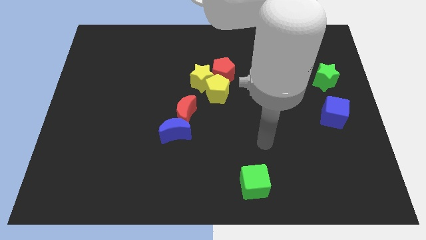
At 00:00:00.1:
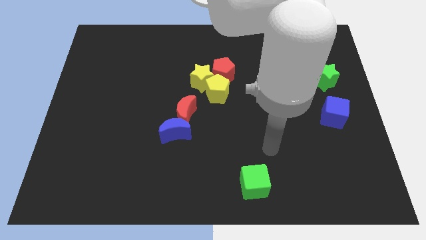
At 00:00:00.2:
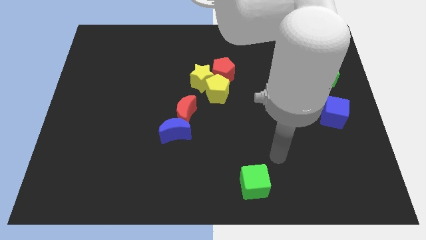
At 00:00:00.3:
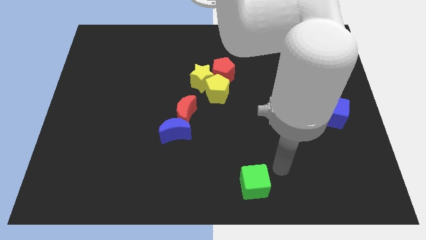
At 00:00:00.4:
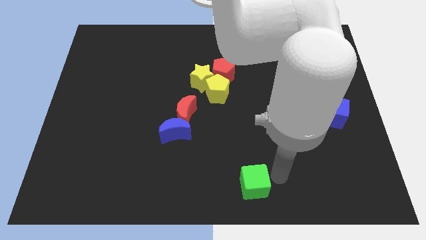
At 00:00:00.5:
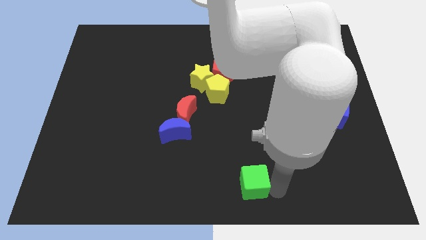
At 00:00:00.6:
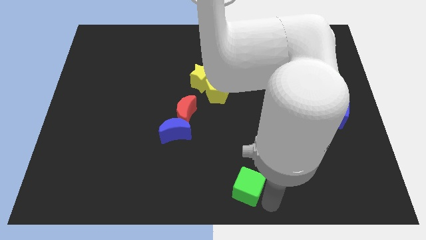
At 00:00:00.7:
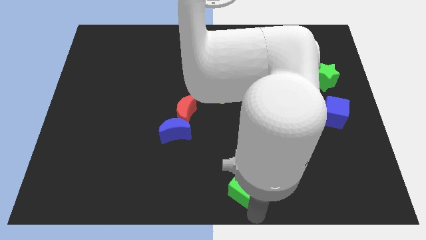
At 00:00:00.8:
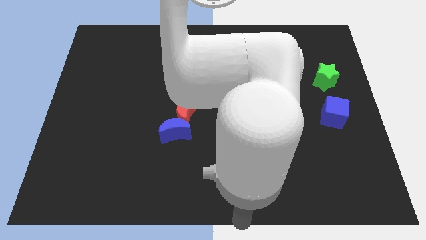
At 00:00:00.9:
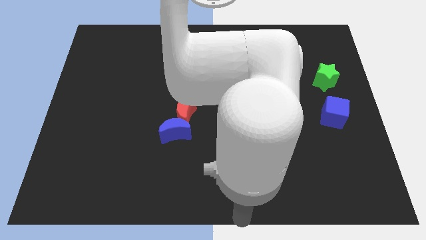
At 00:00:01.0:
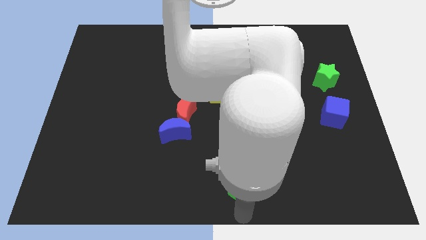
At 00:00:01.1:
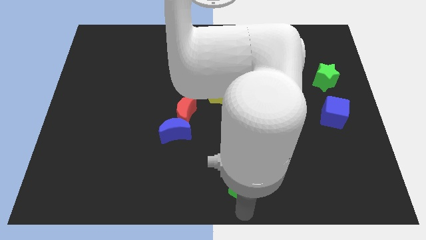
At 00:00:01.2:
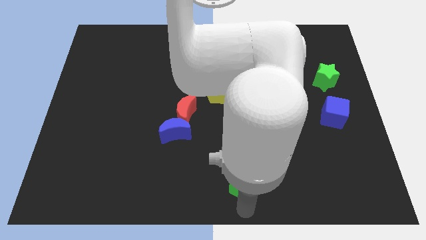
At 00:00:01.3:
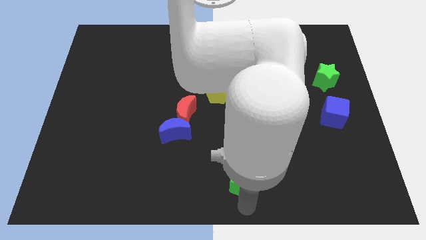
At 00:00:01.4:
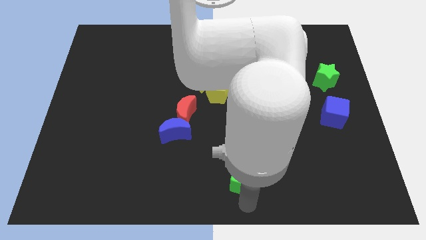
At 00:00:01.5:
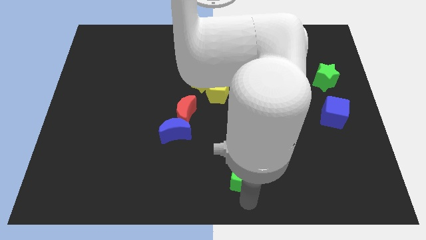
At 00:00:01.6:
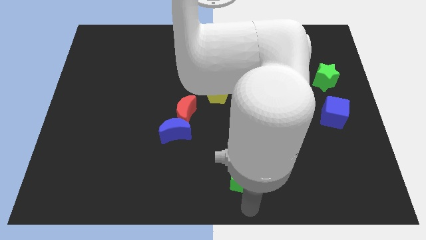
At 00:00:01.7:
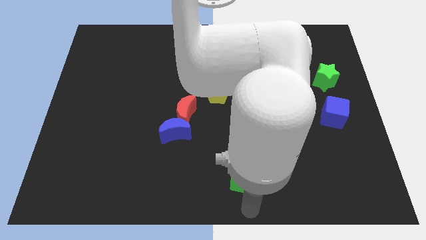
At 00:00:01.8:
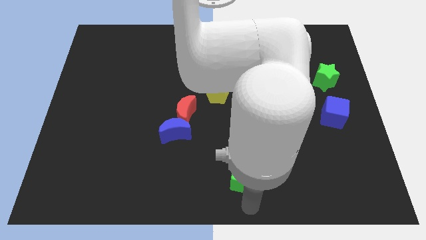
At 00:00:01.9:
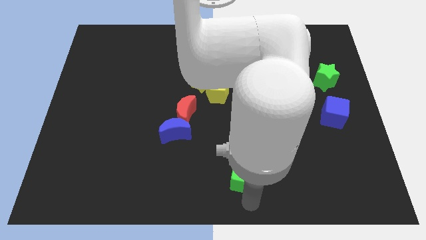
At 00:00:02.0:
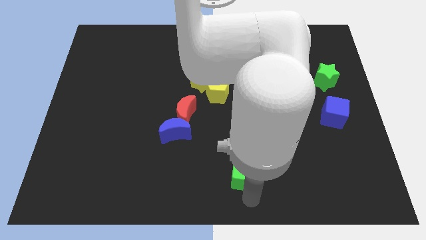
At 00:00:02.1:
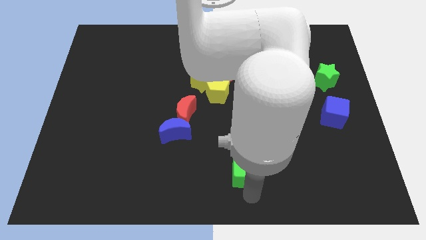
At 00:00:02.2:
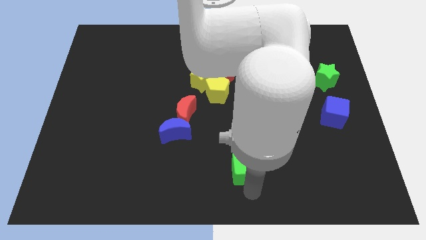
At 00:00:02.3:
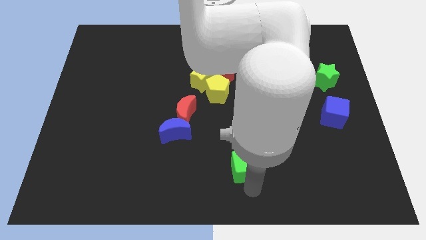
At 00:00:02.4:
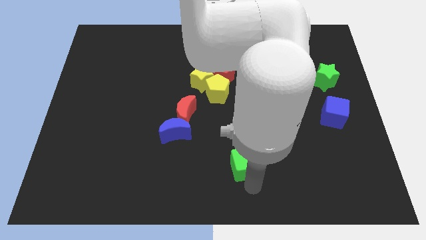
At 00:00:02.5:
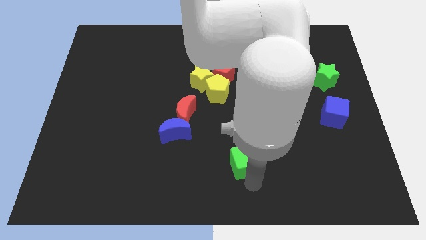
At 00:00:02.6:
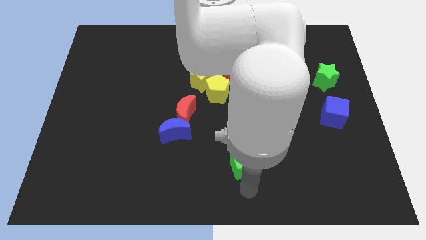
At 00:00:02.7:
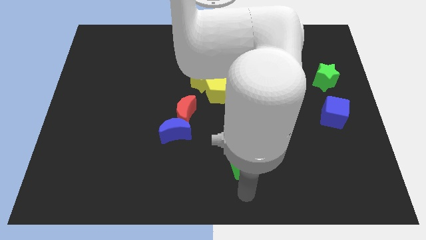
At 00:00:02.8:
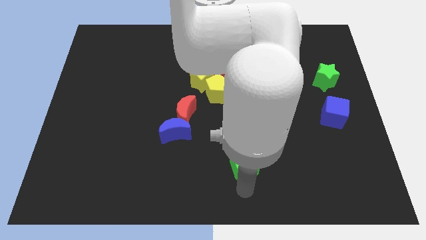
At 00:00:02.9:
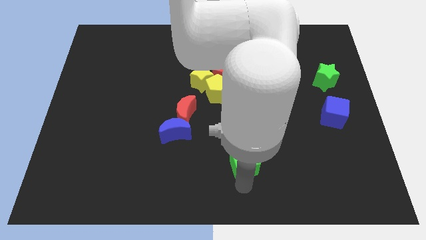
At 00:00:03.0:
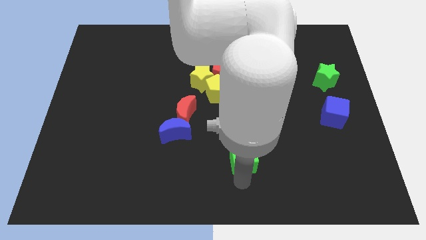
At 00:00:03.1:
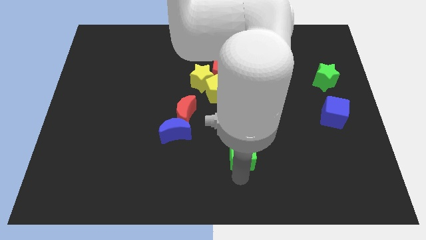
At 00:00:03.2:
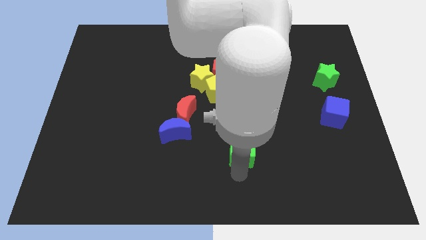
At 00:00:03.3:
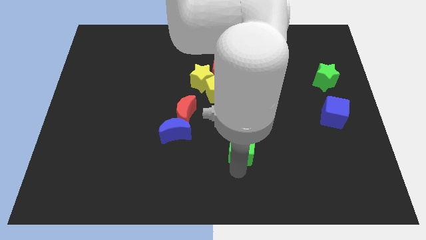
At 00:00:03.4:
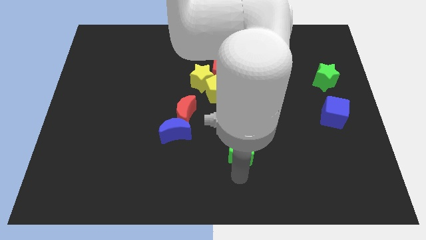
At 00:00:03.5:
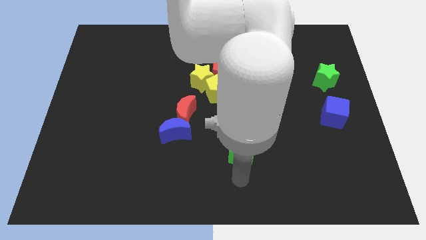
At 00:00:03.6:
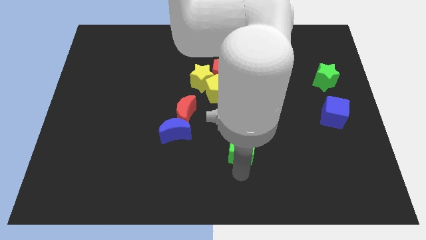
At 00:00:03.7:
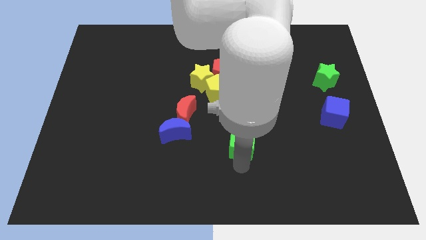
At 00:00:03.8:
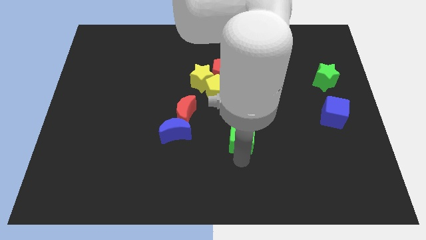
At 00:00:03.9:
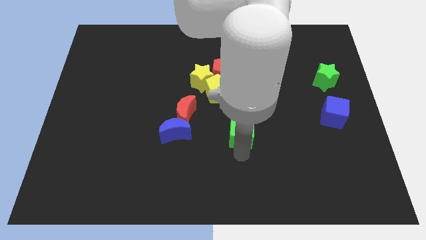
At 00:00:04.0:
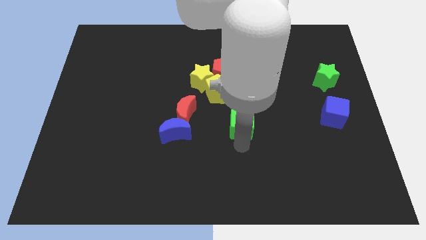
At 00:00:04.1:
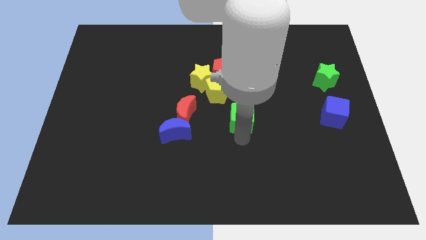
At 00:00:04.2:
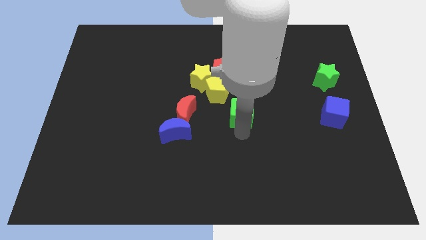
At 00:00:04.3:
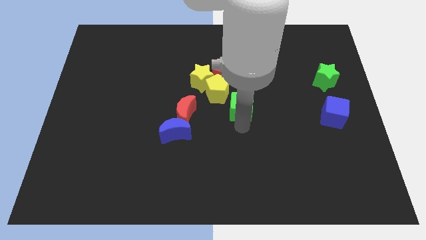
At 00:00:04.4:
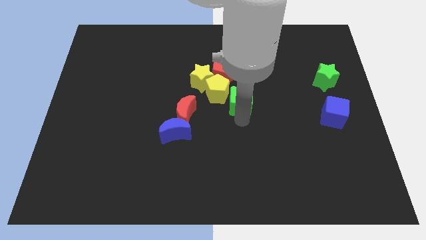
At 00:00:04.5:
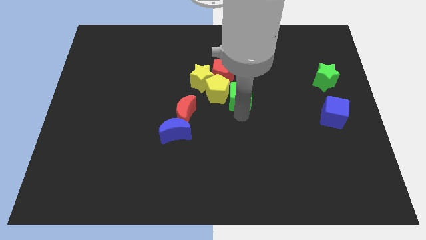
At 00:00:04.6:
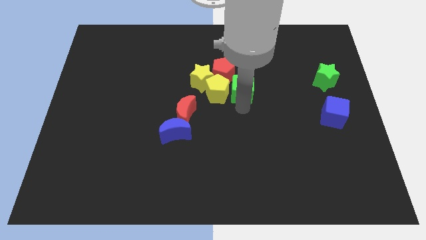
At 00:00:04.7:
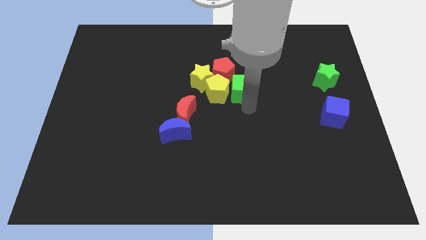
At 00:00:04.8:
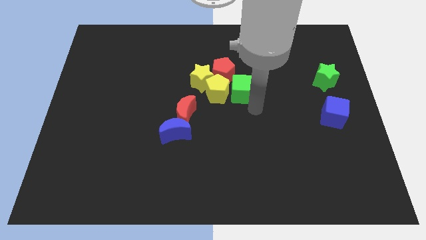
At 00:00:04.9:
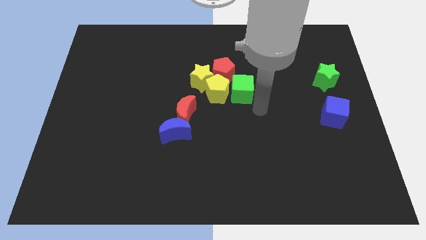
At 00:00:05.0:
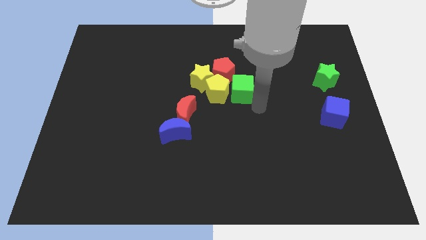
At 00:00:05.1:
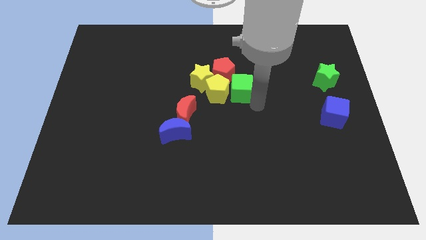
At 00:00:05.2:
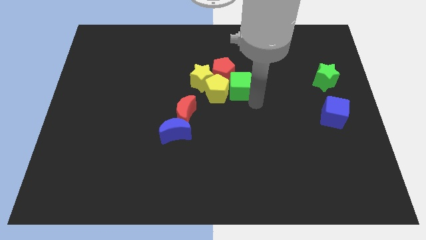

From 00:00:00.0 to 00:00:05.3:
slide the green cube next to the red pentagon

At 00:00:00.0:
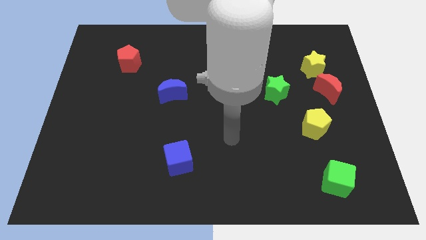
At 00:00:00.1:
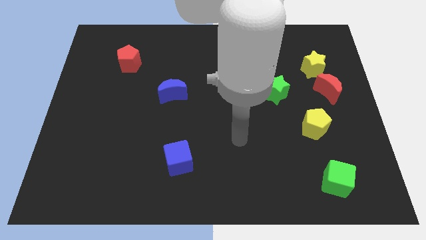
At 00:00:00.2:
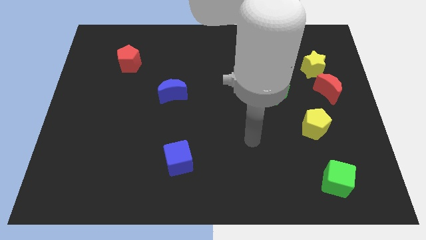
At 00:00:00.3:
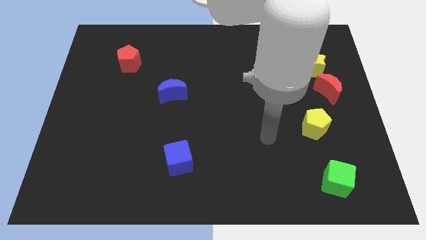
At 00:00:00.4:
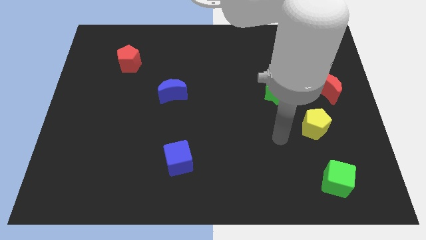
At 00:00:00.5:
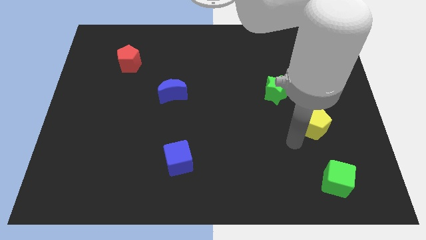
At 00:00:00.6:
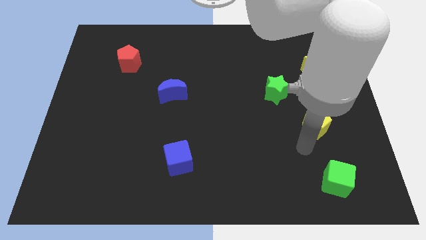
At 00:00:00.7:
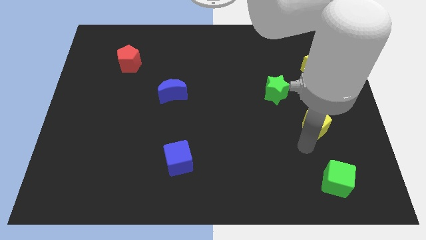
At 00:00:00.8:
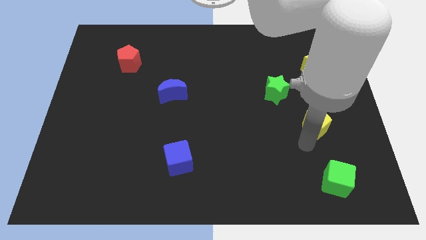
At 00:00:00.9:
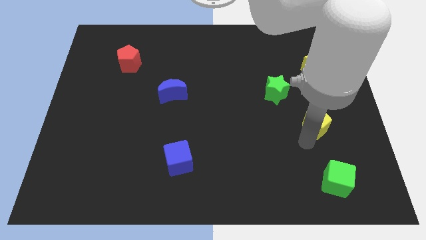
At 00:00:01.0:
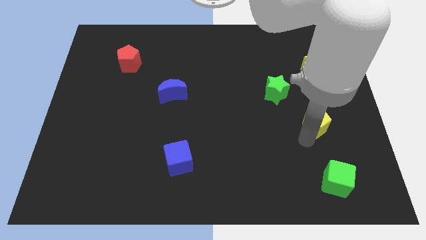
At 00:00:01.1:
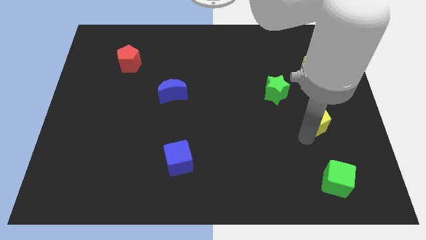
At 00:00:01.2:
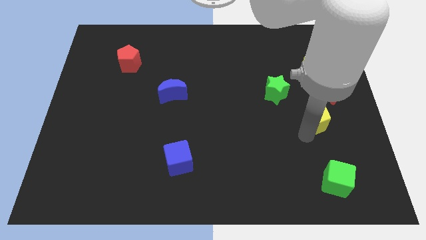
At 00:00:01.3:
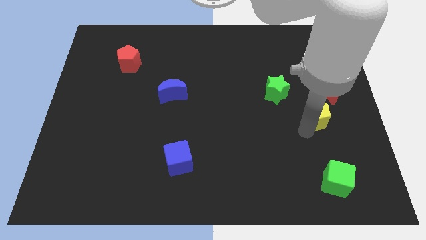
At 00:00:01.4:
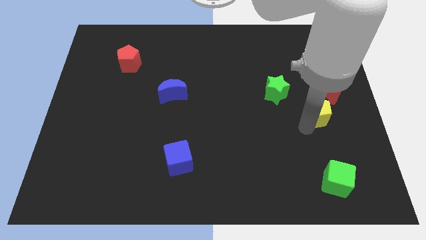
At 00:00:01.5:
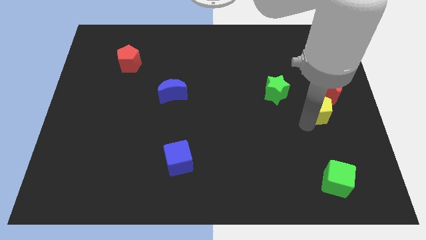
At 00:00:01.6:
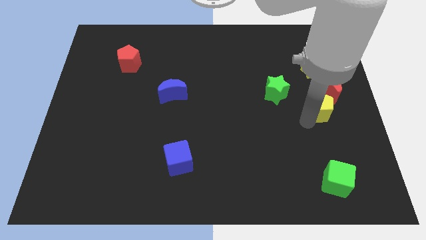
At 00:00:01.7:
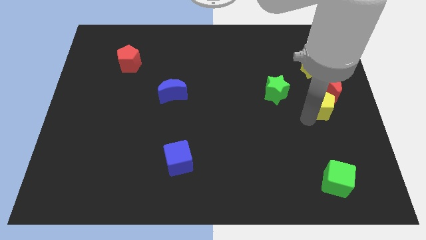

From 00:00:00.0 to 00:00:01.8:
push the yellow pentagon close to the red moon
